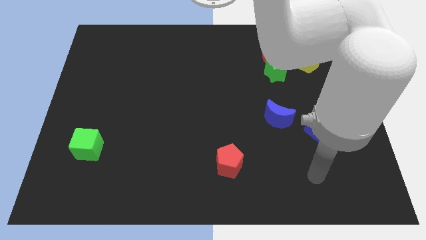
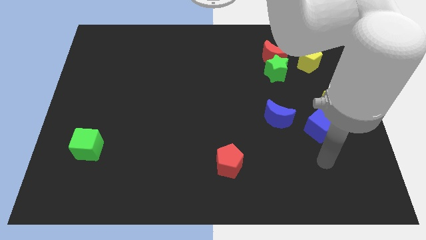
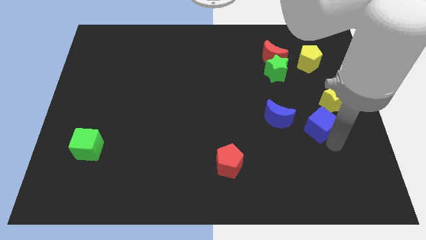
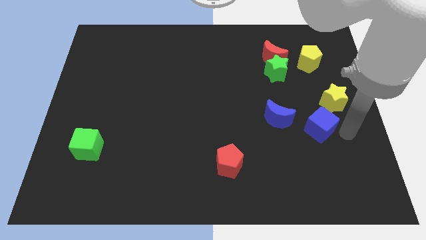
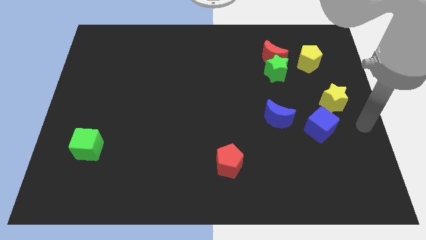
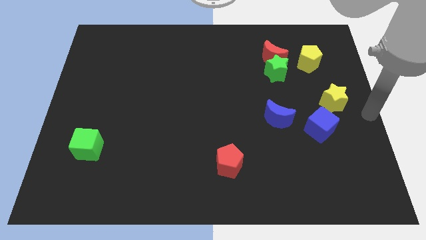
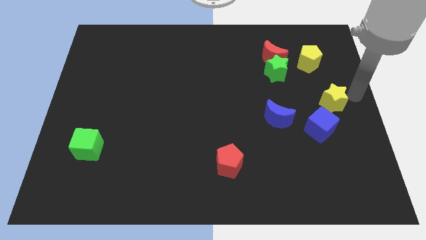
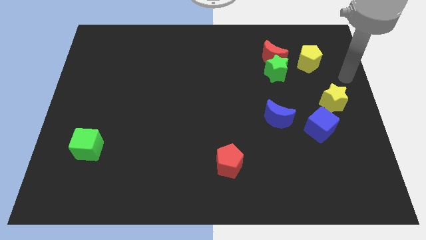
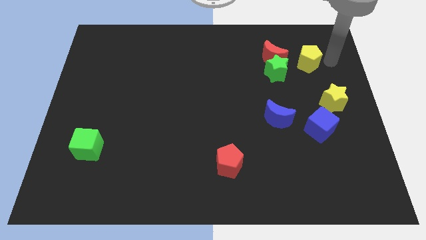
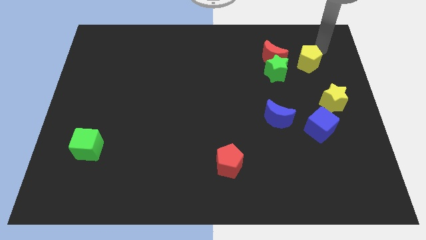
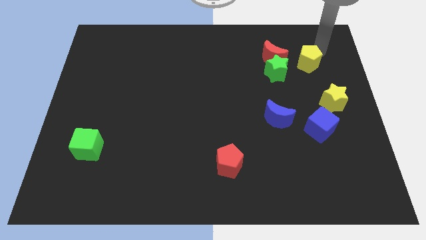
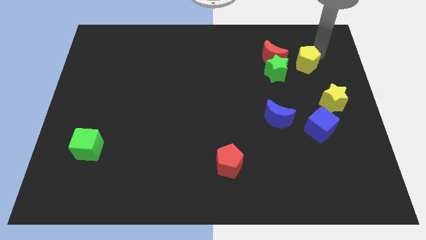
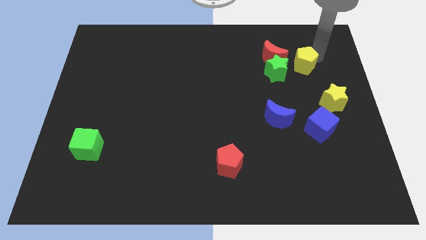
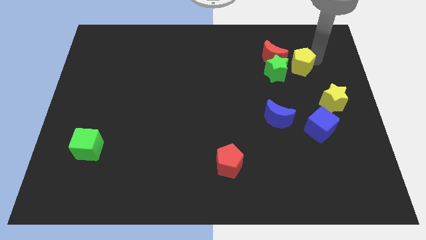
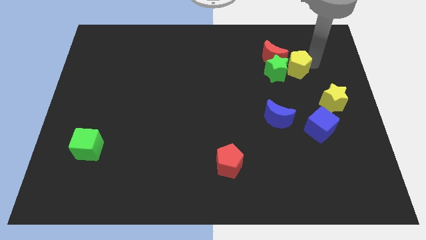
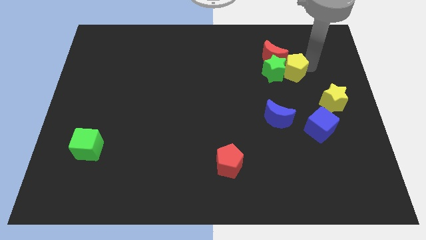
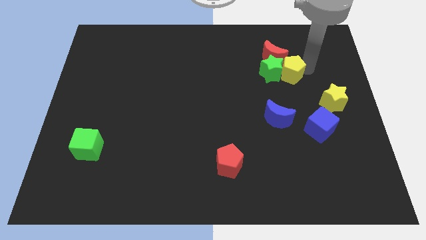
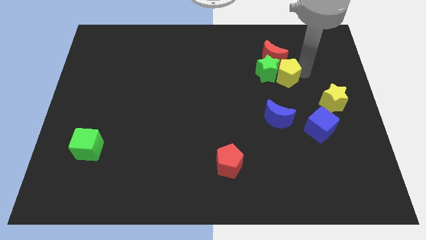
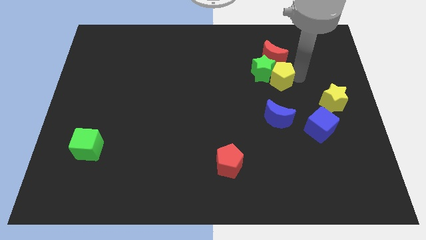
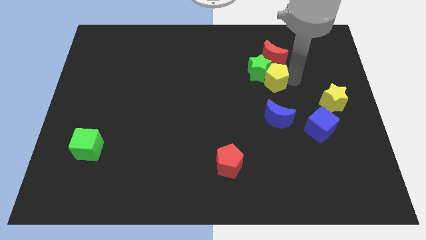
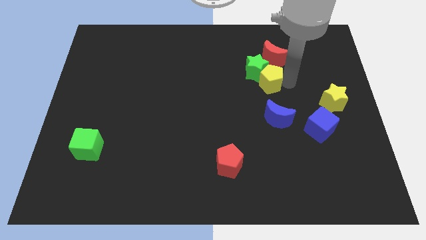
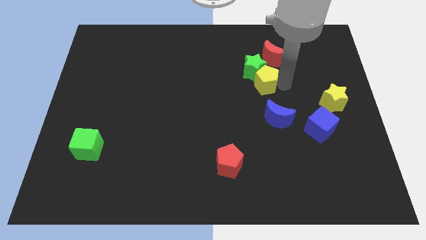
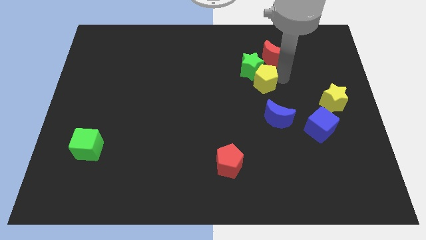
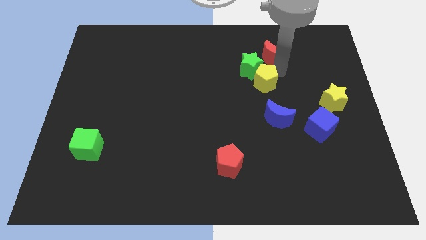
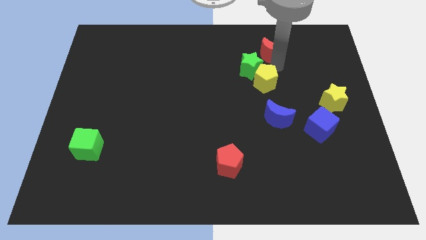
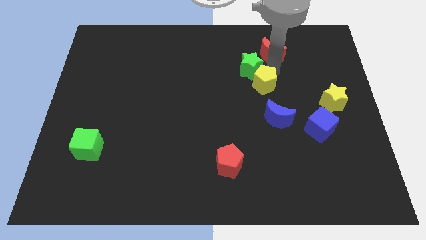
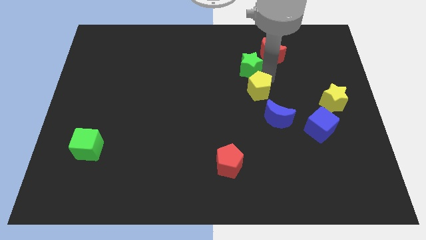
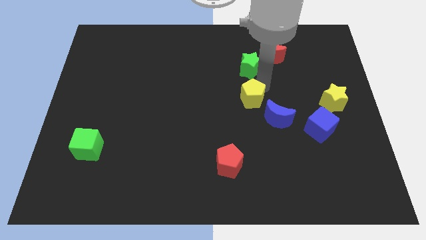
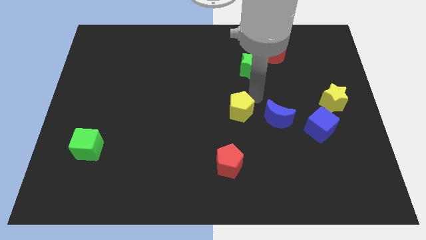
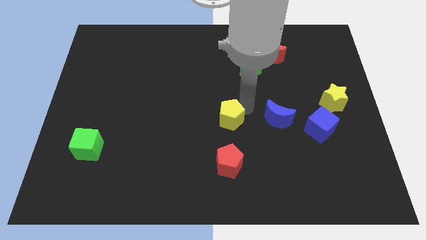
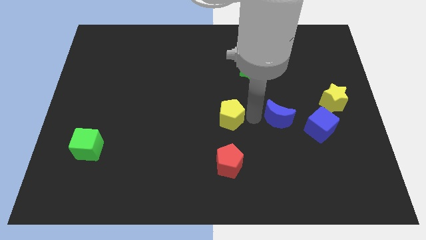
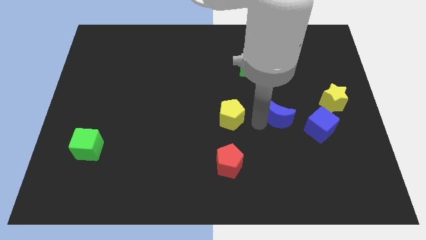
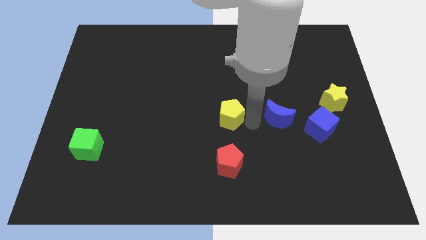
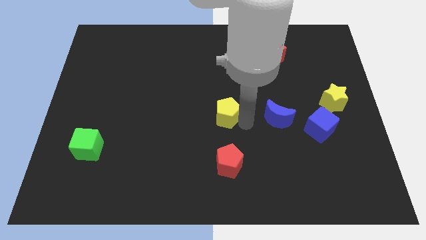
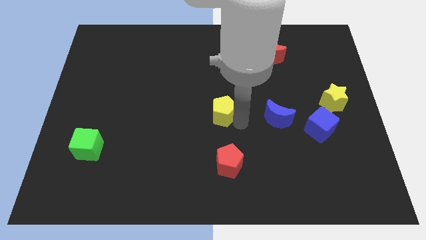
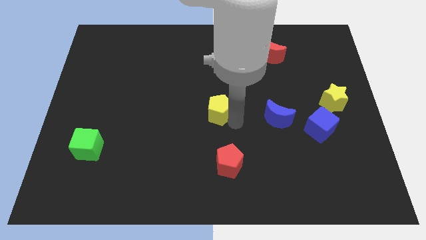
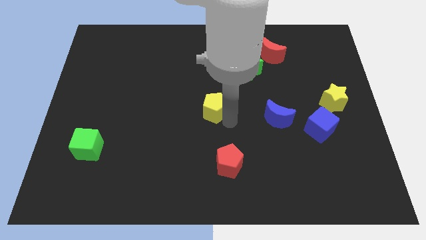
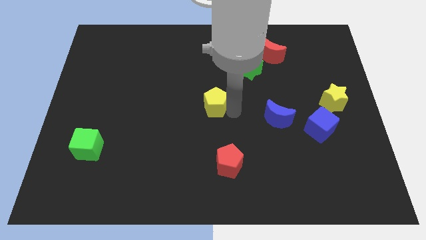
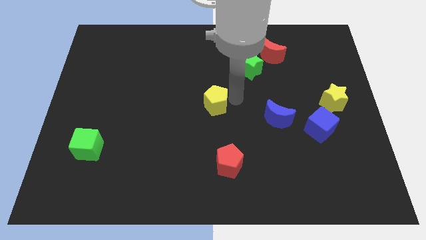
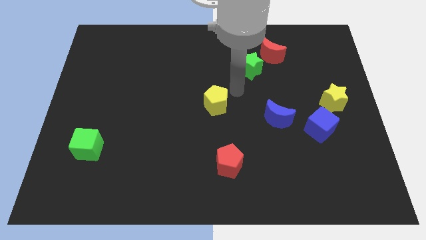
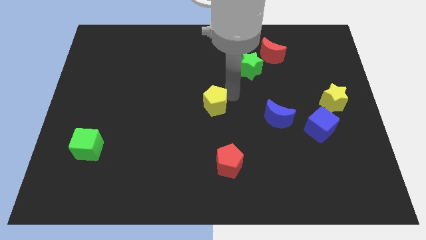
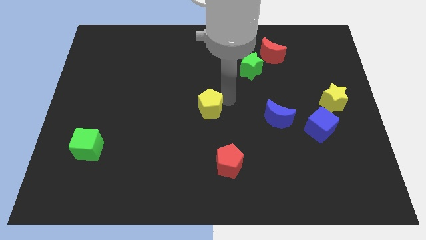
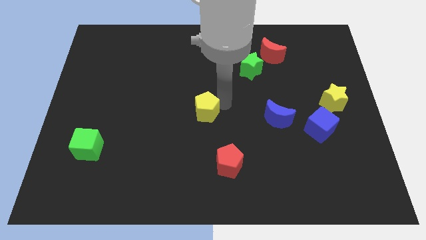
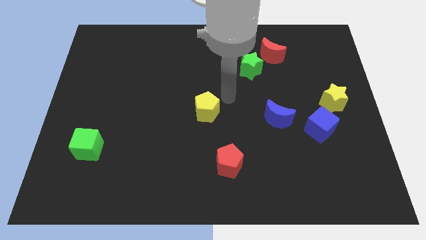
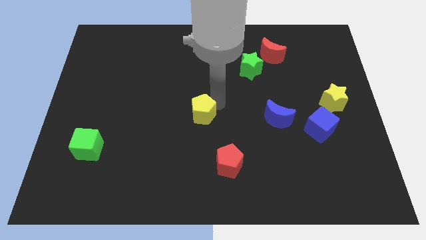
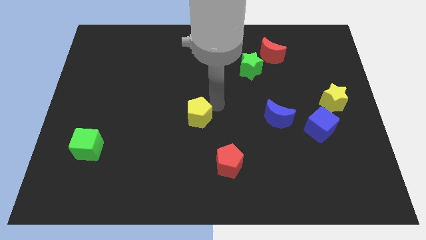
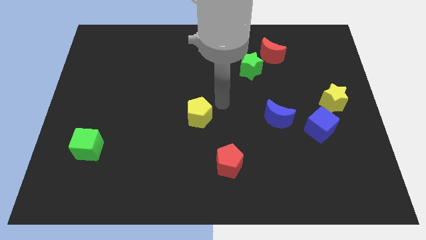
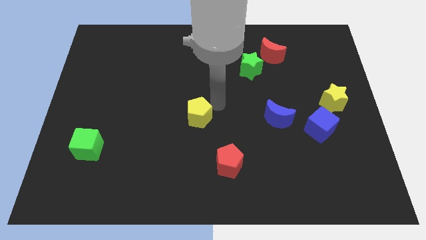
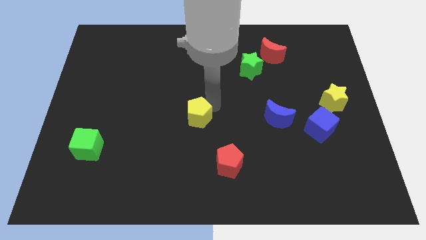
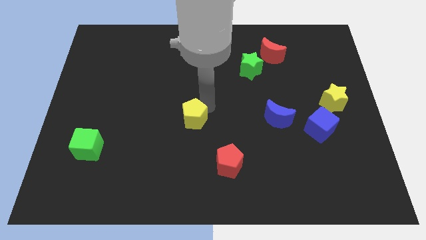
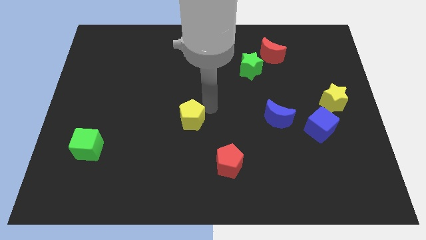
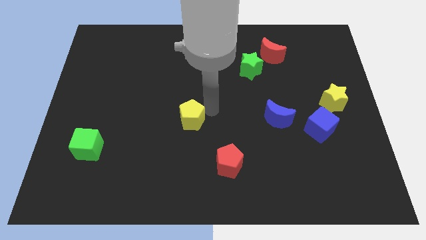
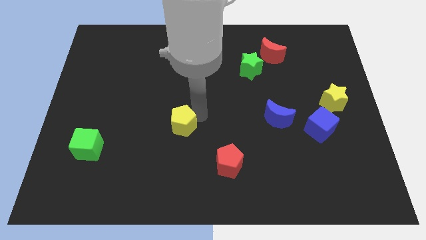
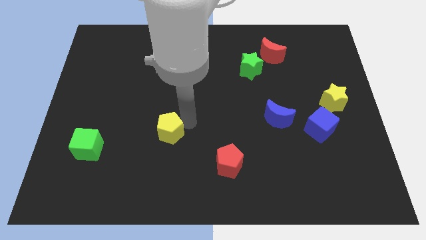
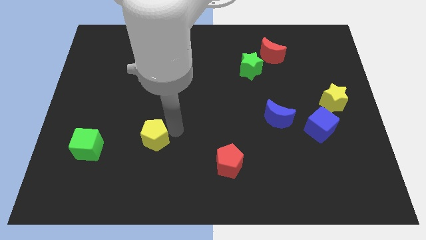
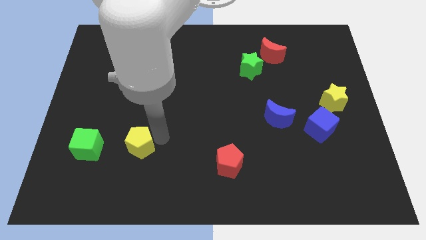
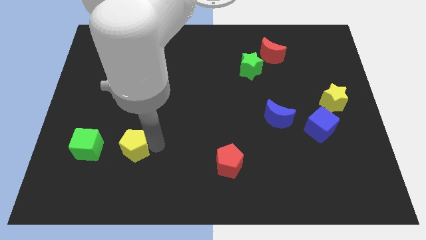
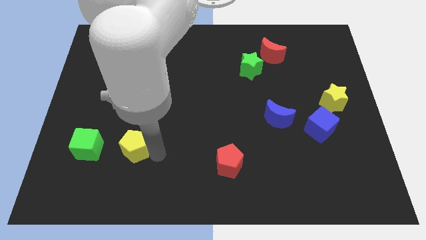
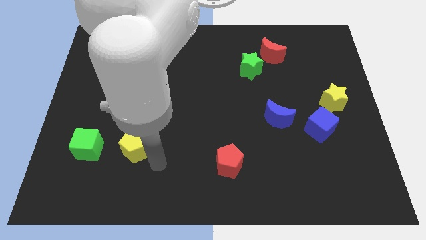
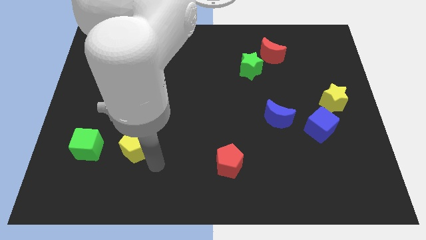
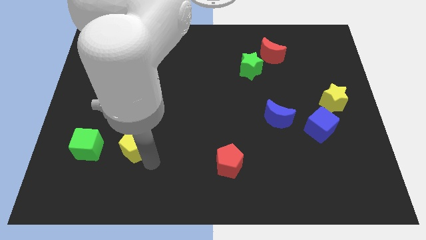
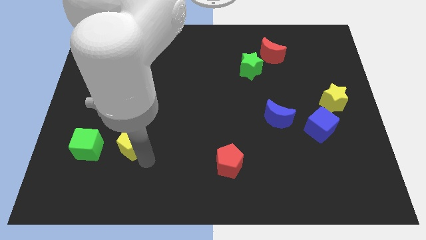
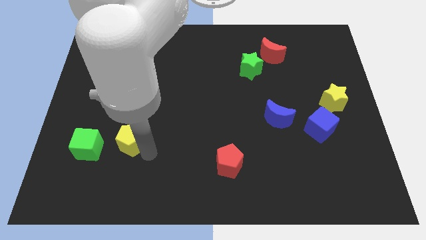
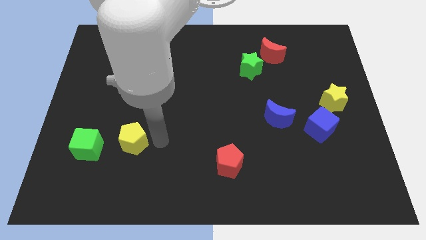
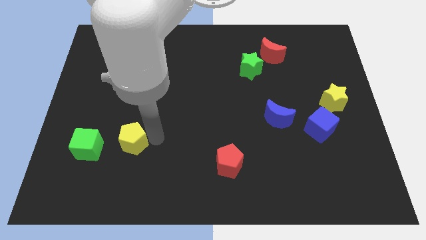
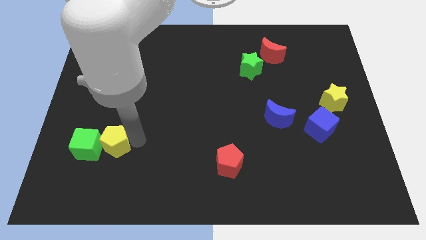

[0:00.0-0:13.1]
push the yellow pentagon to the green cube
